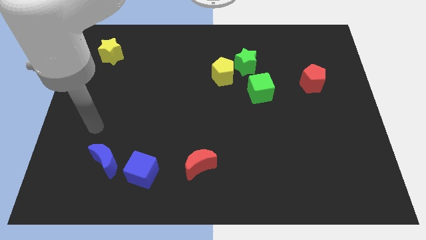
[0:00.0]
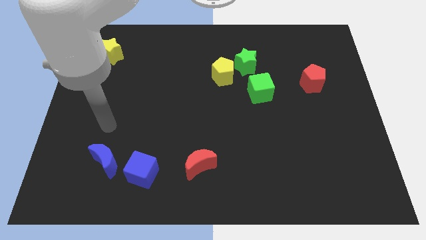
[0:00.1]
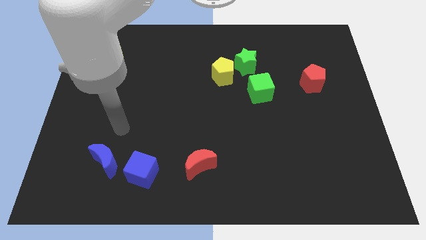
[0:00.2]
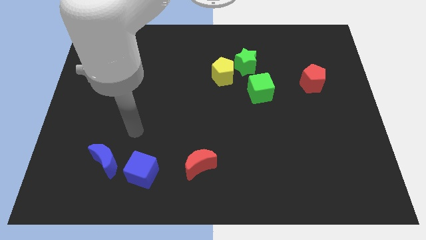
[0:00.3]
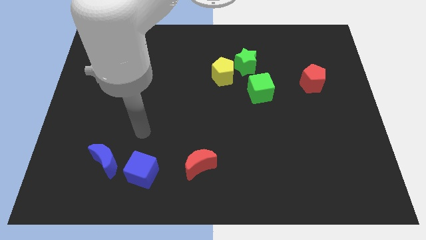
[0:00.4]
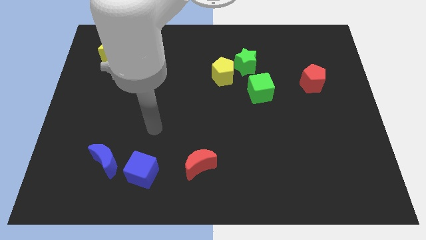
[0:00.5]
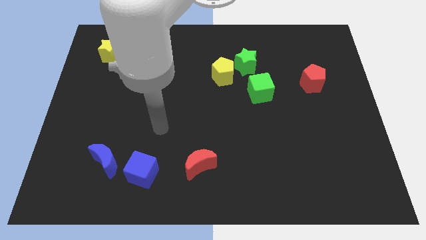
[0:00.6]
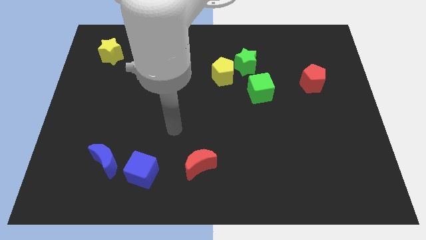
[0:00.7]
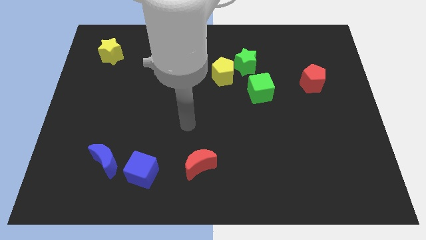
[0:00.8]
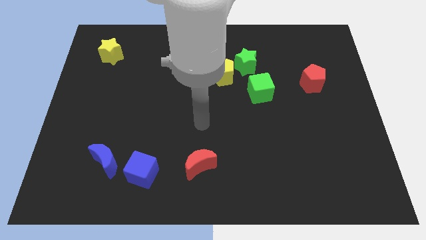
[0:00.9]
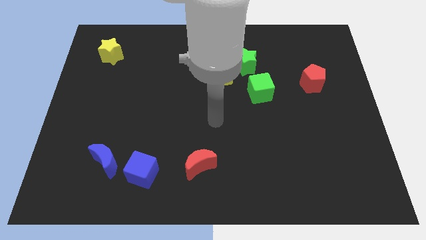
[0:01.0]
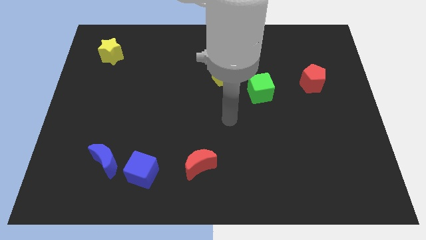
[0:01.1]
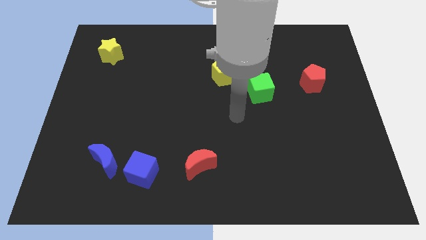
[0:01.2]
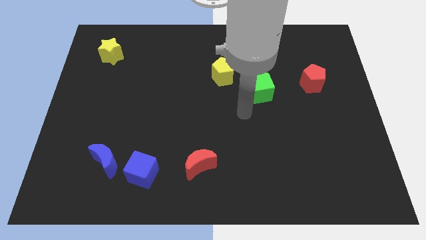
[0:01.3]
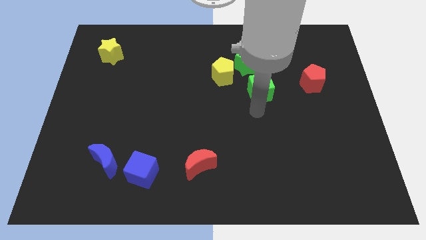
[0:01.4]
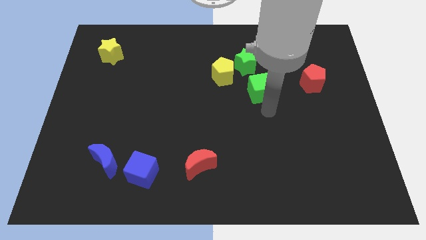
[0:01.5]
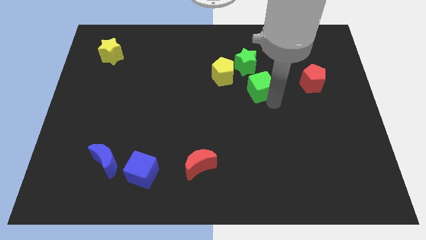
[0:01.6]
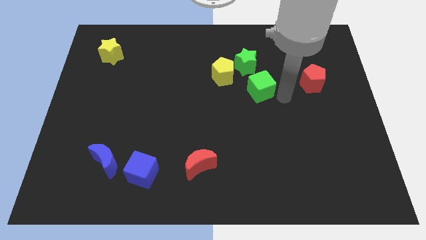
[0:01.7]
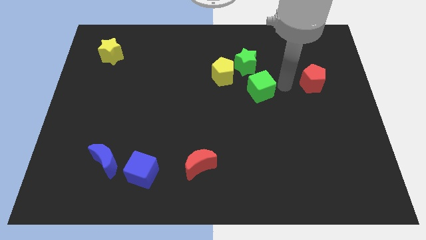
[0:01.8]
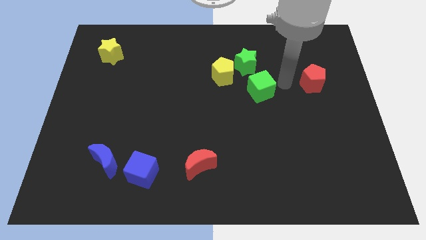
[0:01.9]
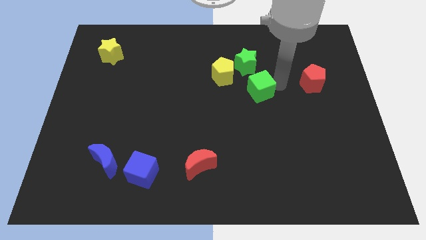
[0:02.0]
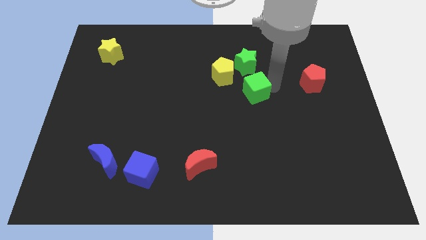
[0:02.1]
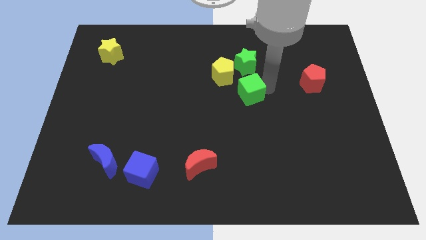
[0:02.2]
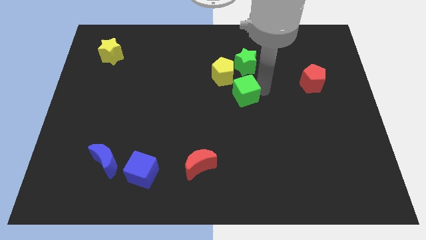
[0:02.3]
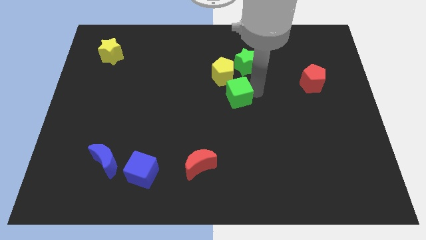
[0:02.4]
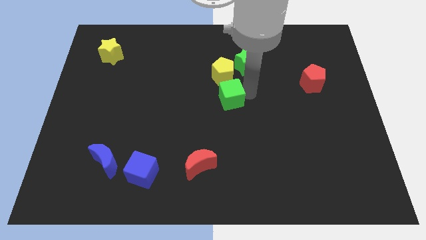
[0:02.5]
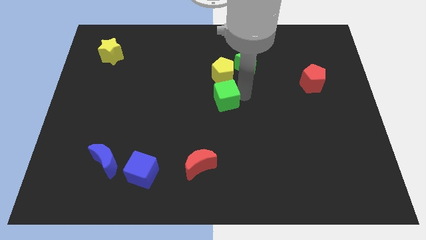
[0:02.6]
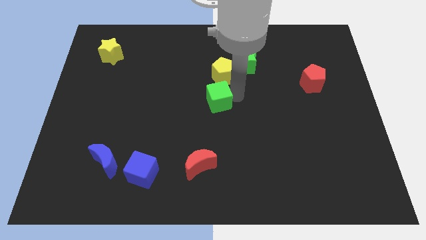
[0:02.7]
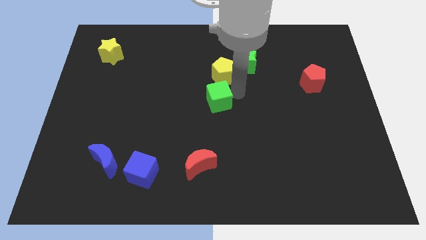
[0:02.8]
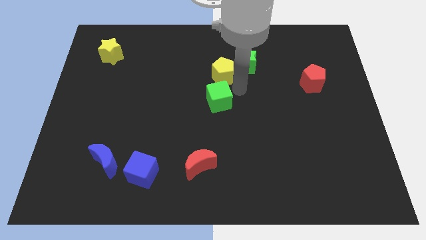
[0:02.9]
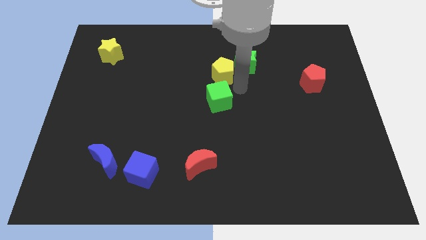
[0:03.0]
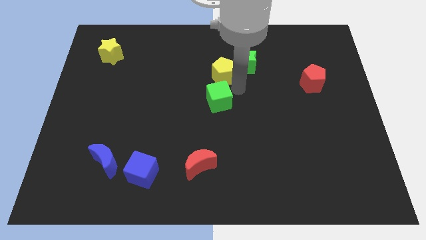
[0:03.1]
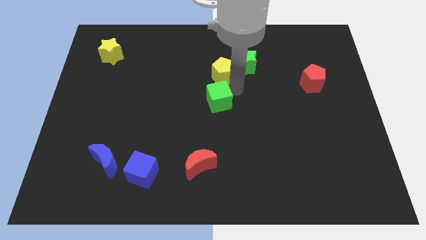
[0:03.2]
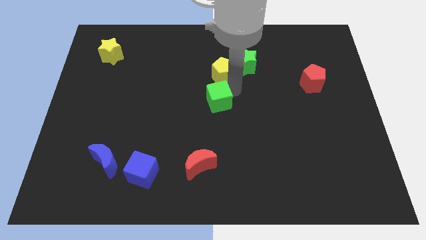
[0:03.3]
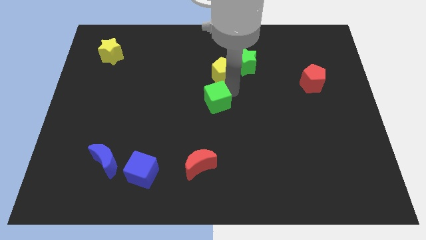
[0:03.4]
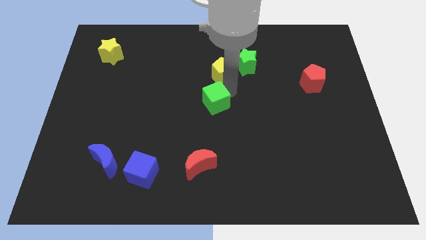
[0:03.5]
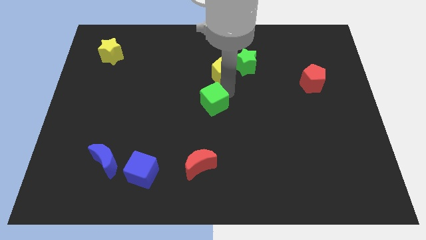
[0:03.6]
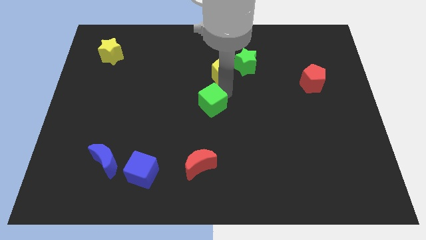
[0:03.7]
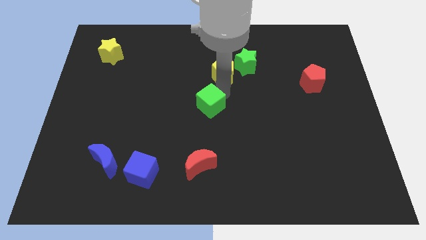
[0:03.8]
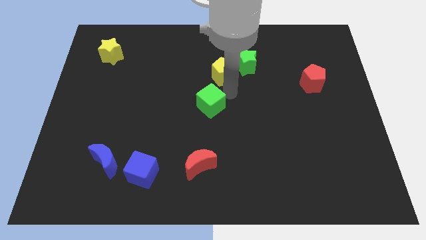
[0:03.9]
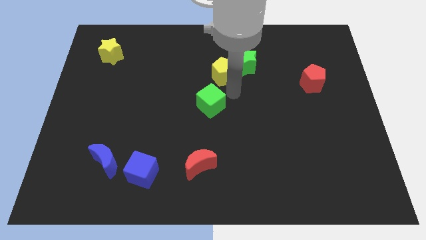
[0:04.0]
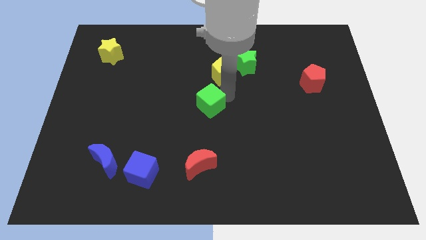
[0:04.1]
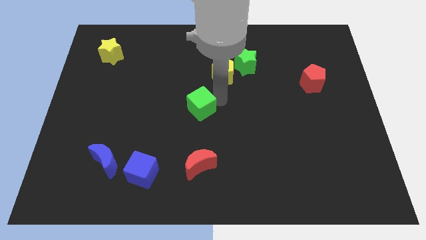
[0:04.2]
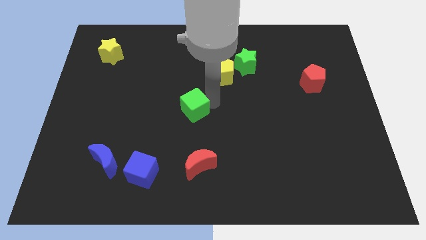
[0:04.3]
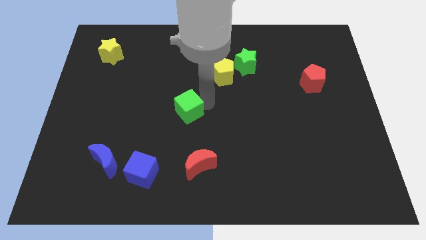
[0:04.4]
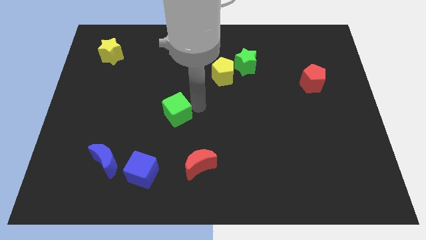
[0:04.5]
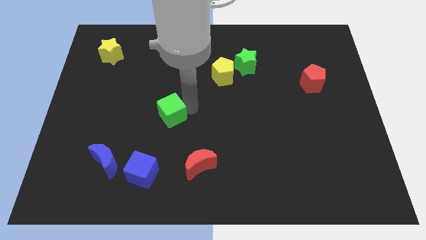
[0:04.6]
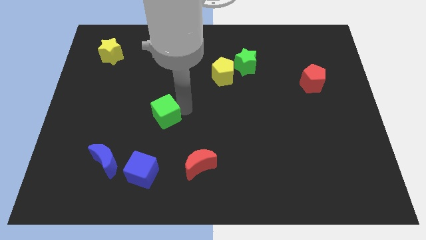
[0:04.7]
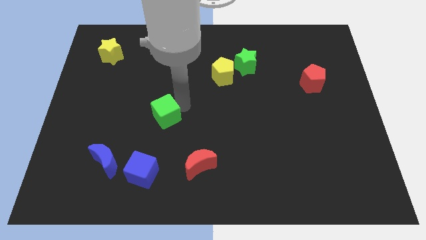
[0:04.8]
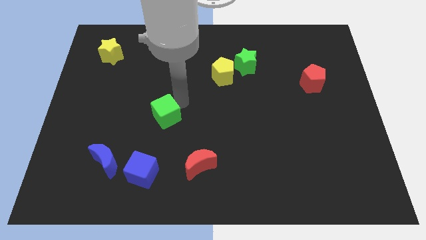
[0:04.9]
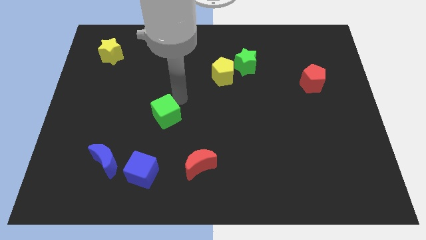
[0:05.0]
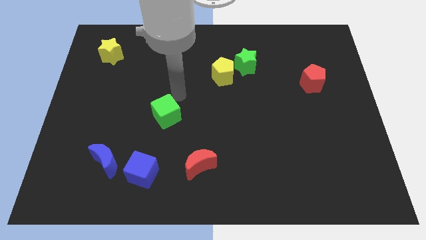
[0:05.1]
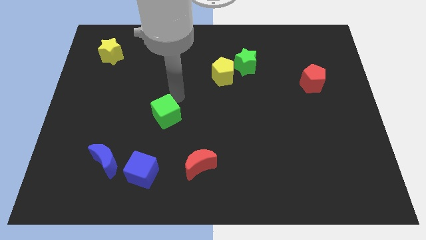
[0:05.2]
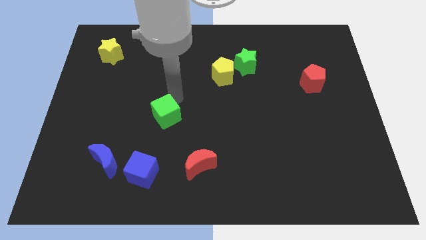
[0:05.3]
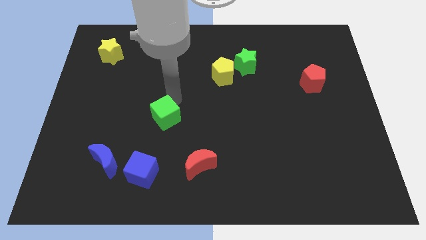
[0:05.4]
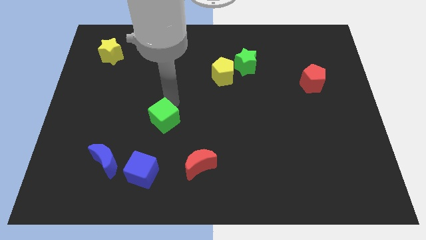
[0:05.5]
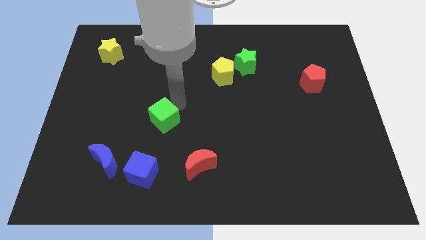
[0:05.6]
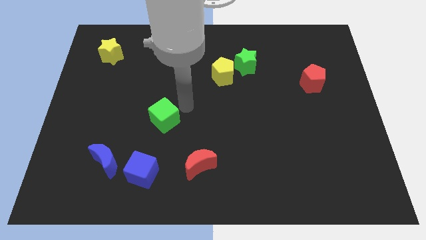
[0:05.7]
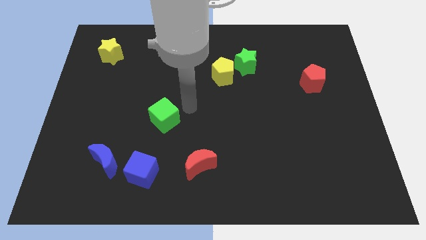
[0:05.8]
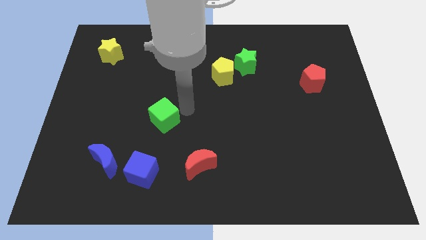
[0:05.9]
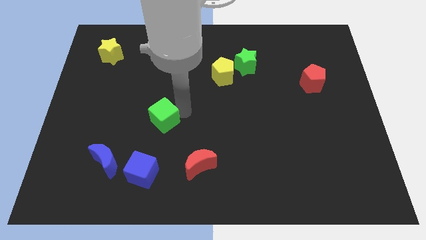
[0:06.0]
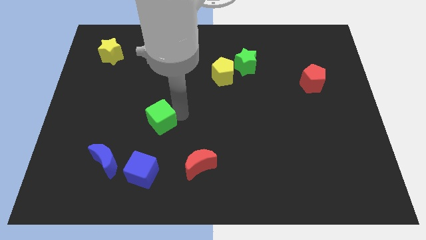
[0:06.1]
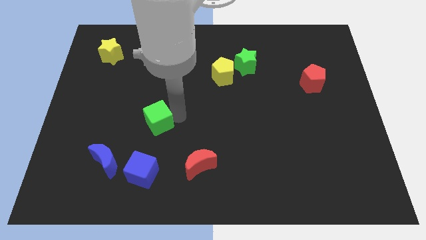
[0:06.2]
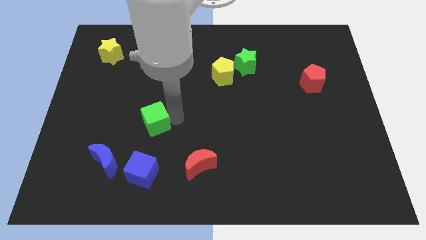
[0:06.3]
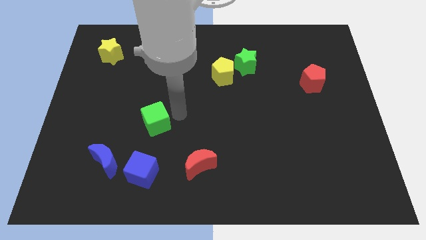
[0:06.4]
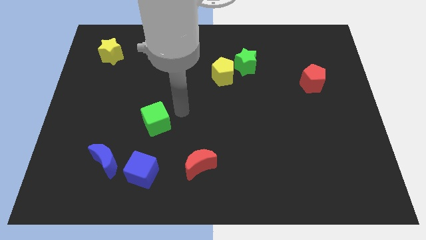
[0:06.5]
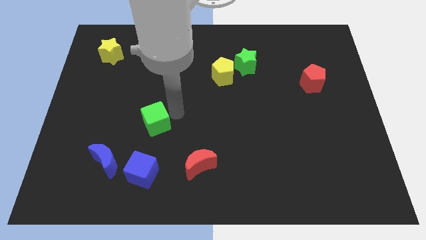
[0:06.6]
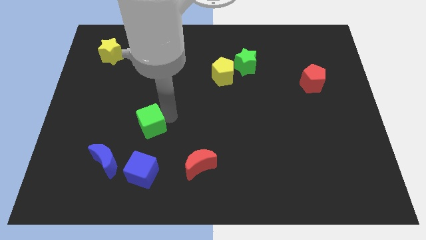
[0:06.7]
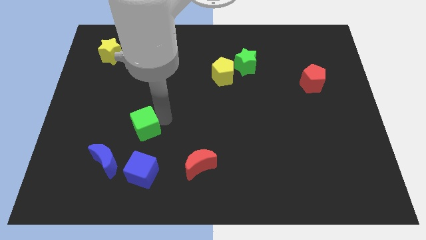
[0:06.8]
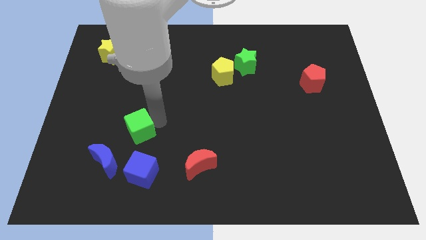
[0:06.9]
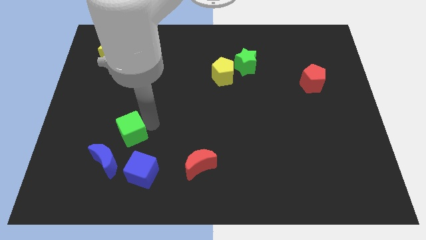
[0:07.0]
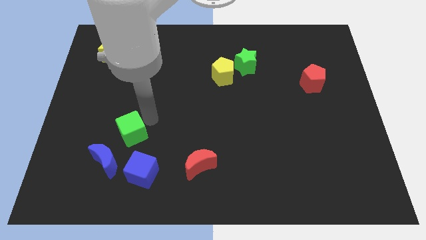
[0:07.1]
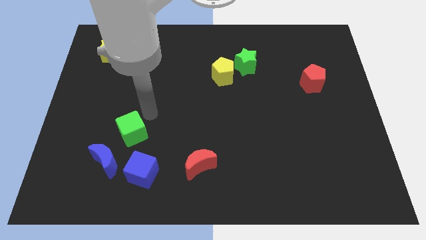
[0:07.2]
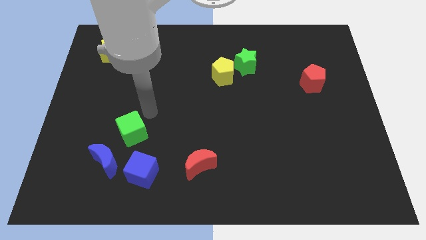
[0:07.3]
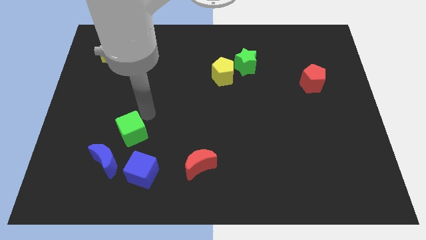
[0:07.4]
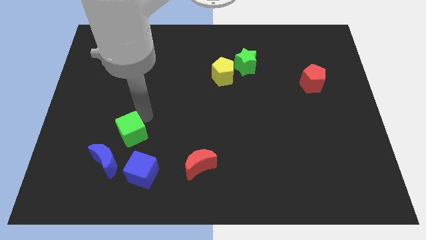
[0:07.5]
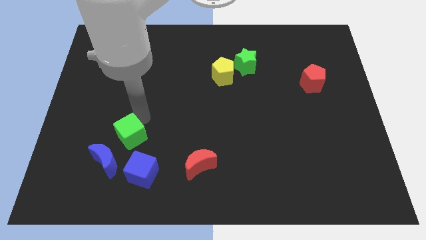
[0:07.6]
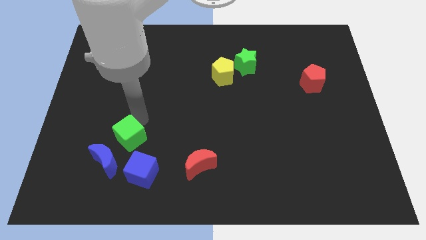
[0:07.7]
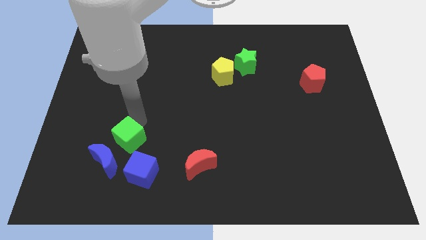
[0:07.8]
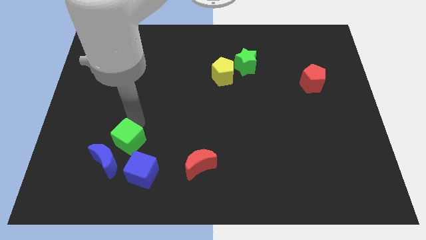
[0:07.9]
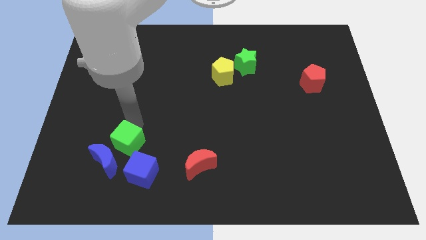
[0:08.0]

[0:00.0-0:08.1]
slide the green cube to the blue moon
